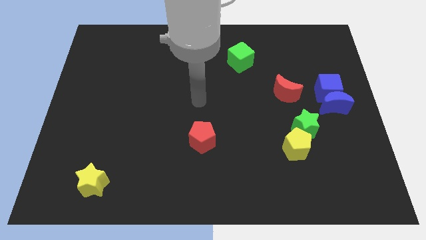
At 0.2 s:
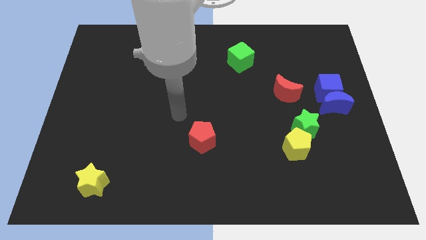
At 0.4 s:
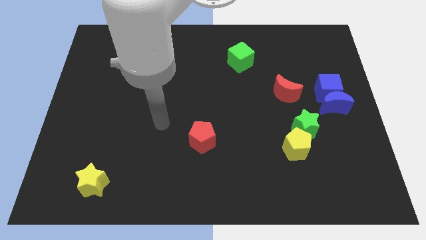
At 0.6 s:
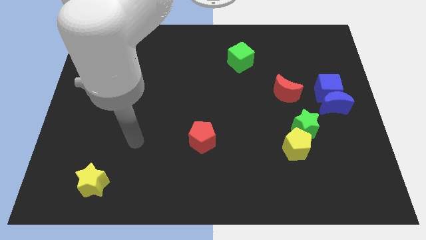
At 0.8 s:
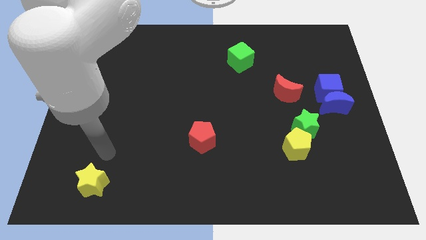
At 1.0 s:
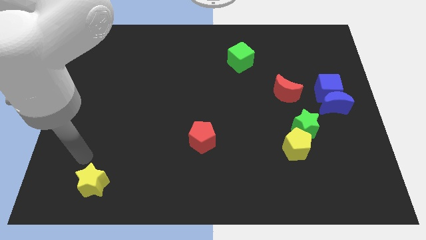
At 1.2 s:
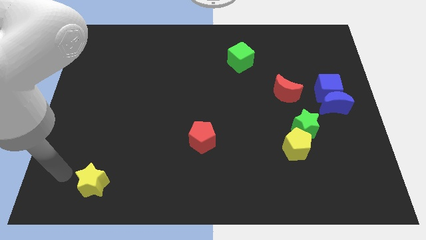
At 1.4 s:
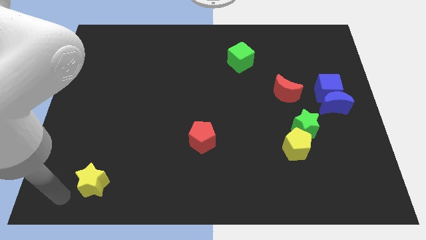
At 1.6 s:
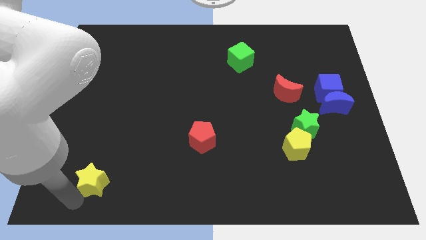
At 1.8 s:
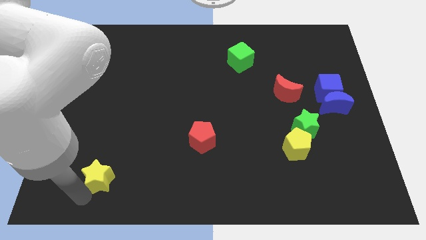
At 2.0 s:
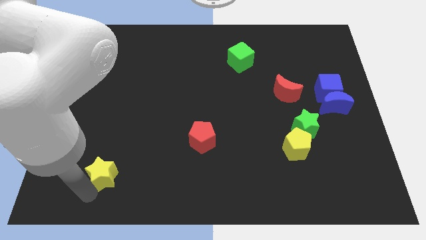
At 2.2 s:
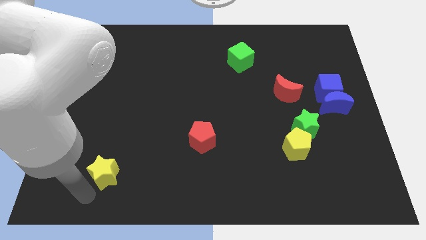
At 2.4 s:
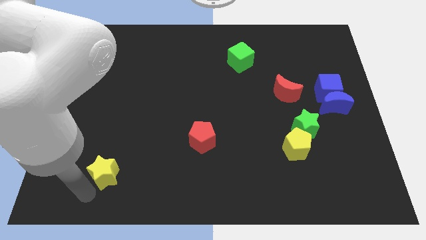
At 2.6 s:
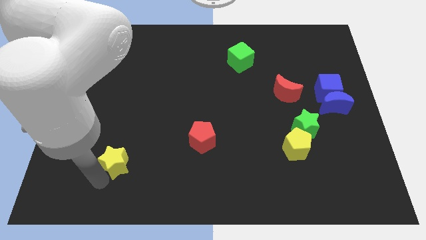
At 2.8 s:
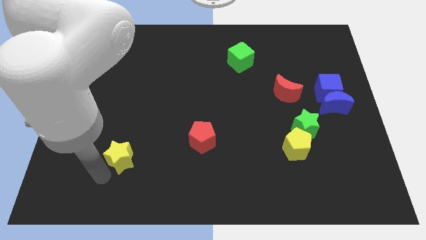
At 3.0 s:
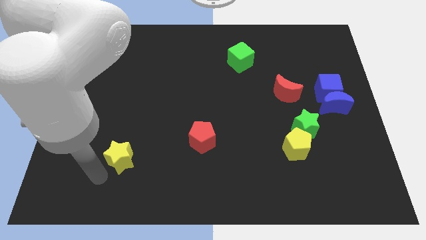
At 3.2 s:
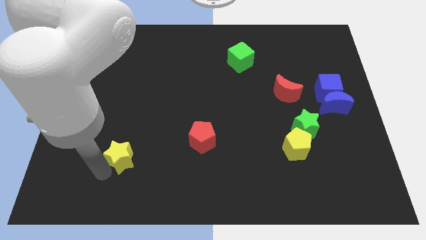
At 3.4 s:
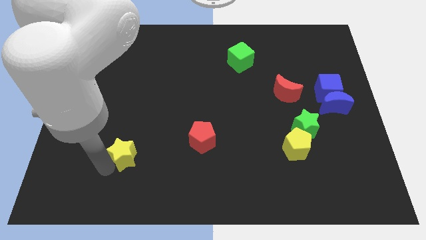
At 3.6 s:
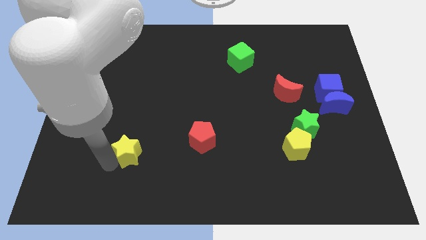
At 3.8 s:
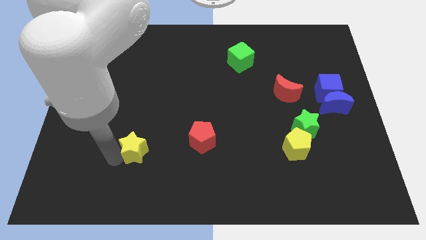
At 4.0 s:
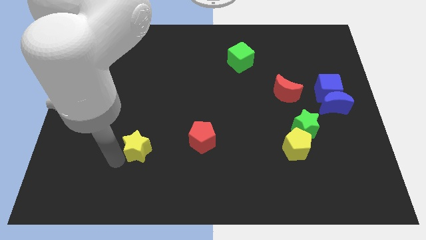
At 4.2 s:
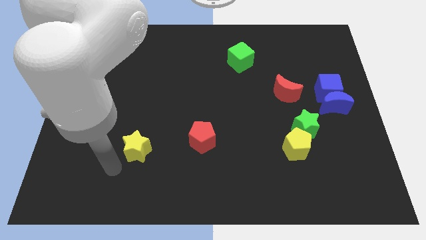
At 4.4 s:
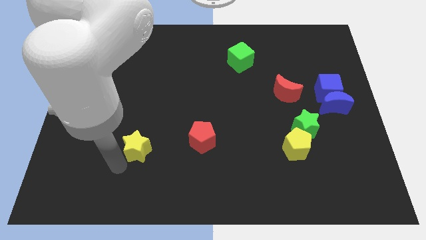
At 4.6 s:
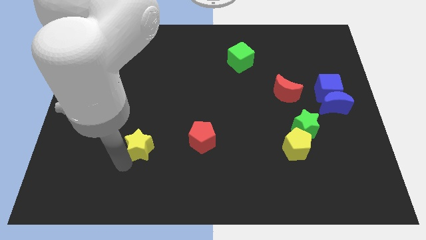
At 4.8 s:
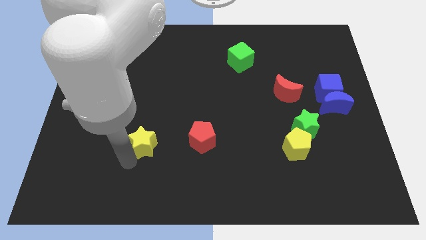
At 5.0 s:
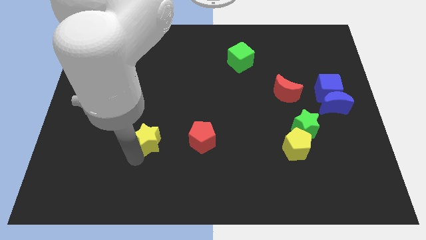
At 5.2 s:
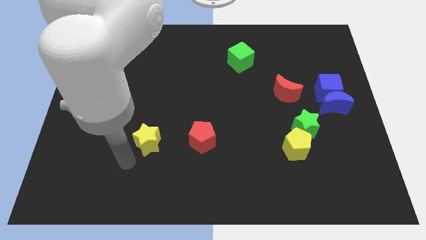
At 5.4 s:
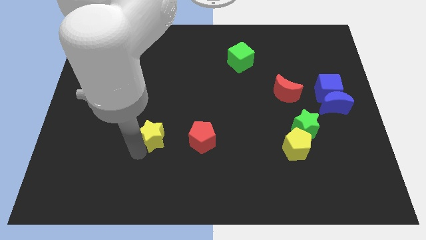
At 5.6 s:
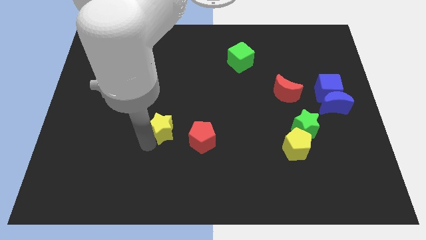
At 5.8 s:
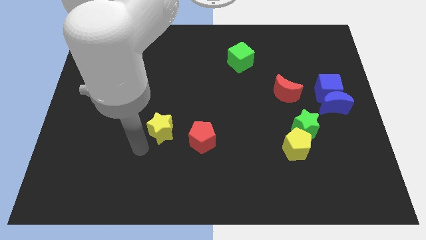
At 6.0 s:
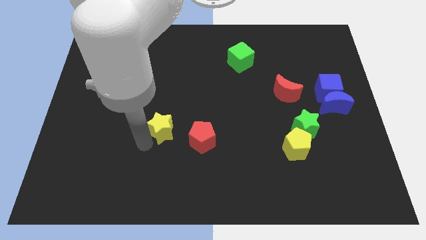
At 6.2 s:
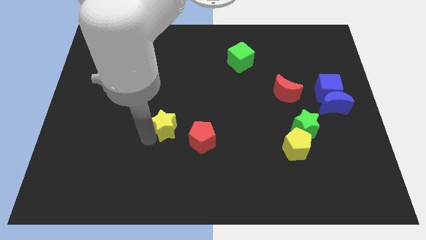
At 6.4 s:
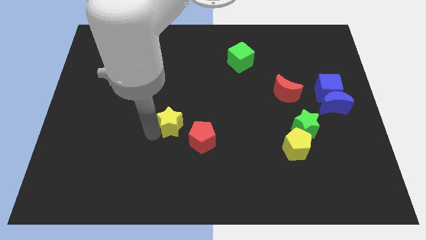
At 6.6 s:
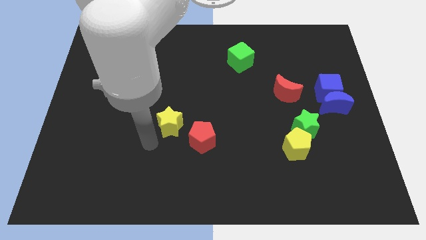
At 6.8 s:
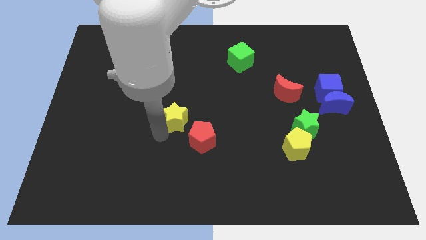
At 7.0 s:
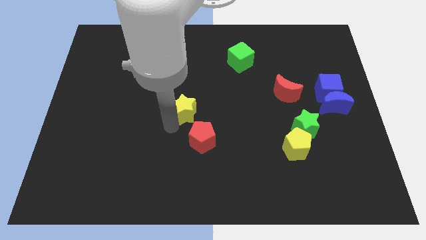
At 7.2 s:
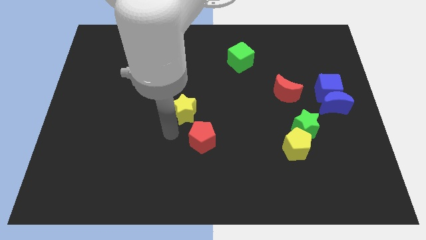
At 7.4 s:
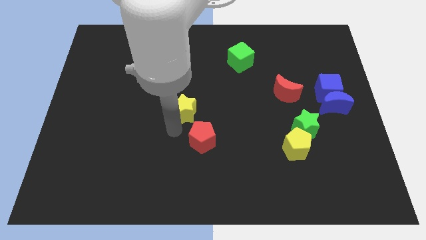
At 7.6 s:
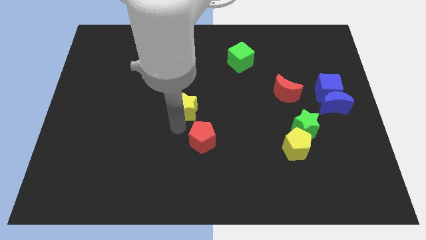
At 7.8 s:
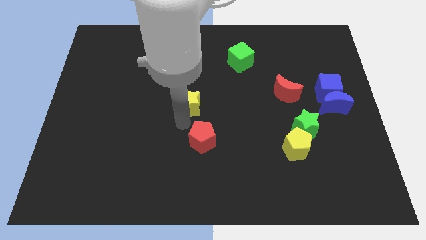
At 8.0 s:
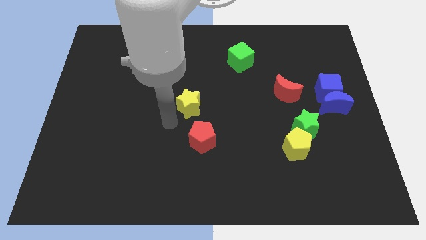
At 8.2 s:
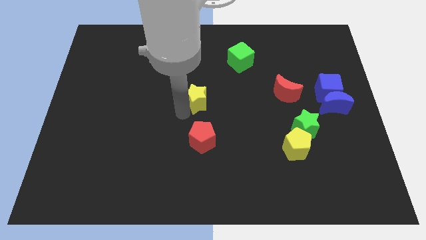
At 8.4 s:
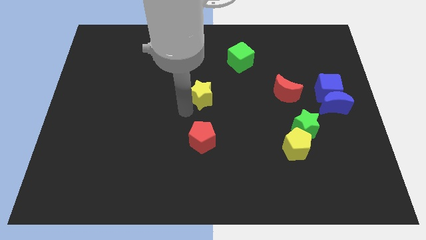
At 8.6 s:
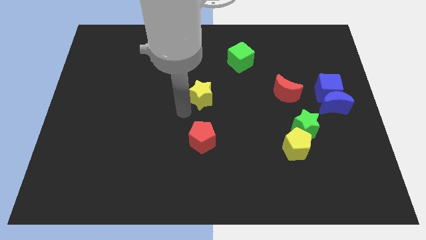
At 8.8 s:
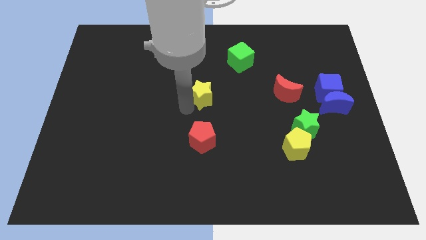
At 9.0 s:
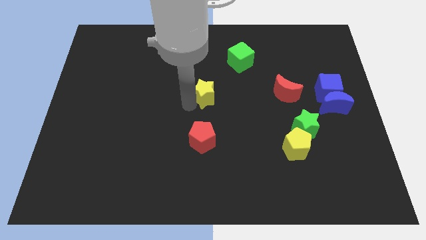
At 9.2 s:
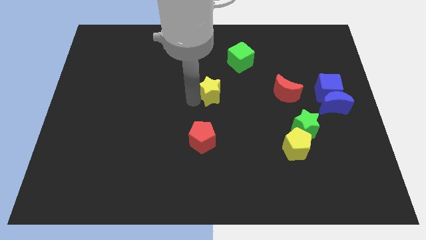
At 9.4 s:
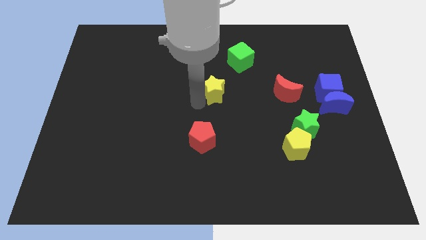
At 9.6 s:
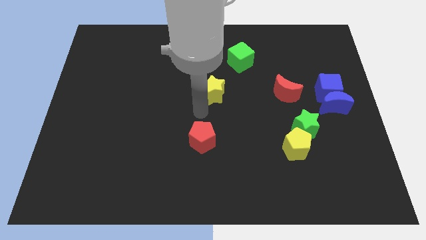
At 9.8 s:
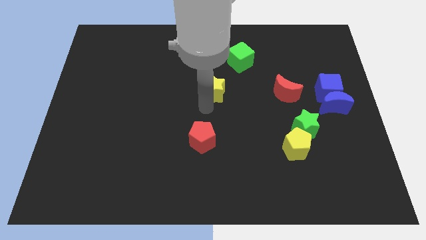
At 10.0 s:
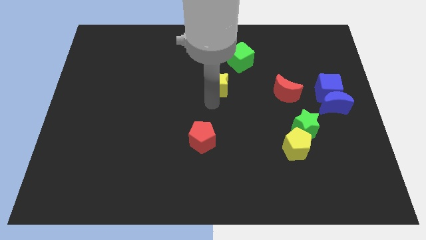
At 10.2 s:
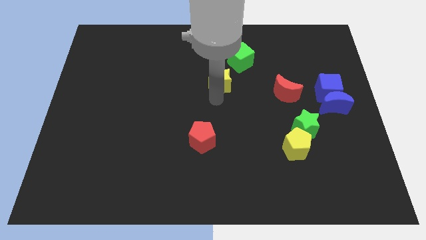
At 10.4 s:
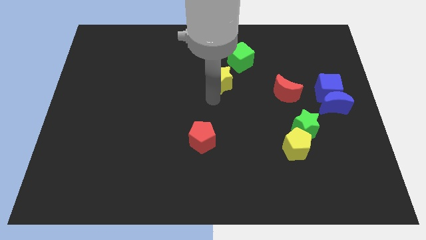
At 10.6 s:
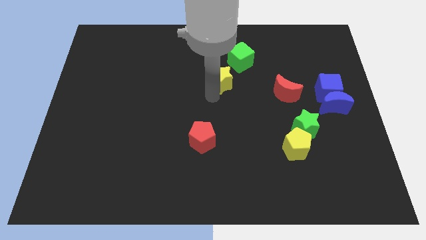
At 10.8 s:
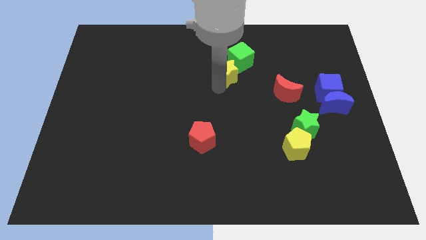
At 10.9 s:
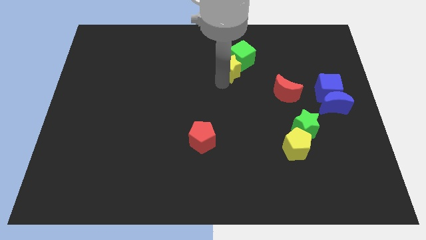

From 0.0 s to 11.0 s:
put the yellow star to the green cube

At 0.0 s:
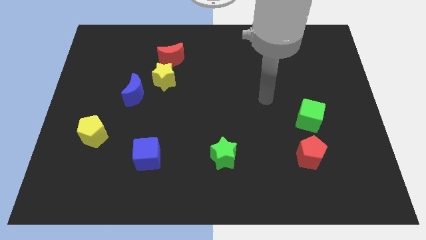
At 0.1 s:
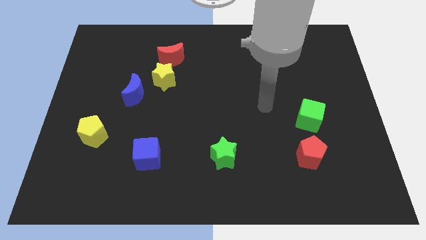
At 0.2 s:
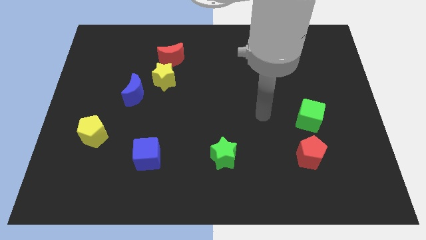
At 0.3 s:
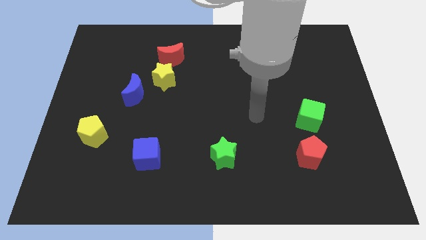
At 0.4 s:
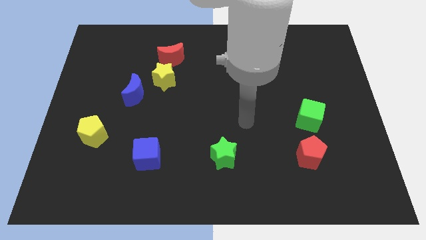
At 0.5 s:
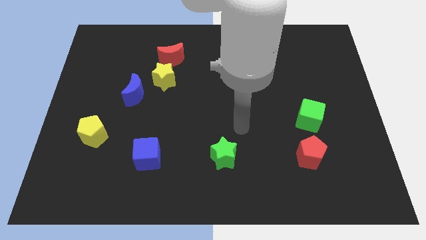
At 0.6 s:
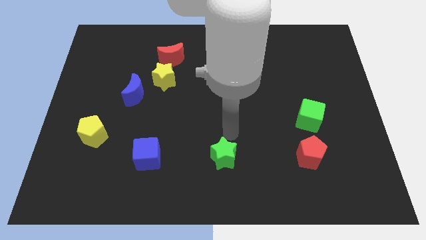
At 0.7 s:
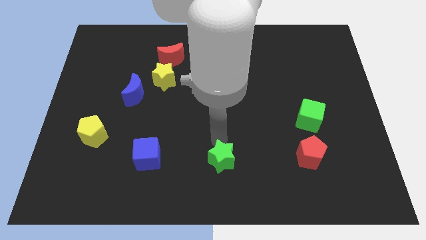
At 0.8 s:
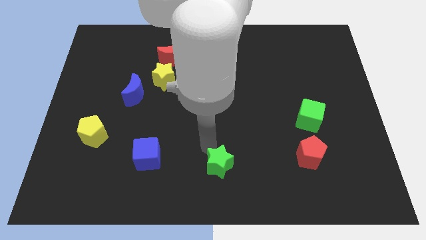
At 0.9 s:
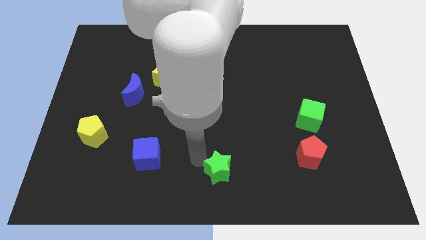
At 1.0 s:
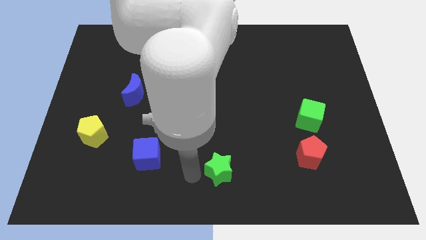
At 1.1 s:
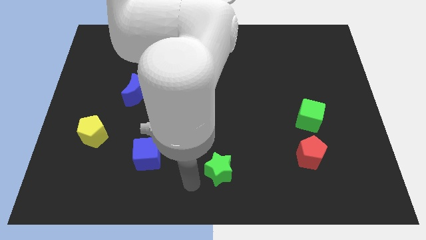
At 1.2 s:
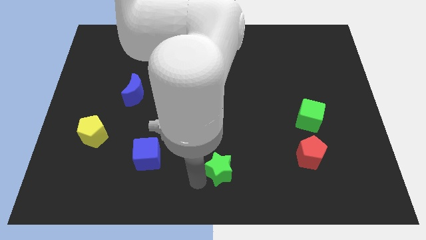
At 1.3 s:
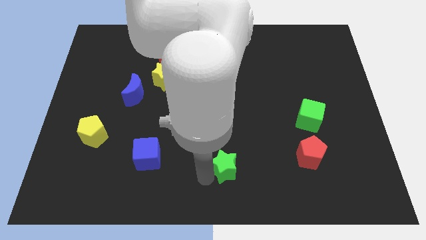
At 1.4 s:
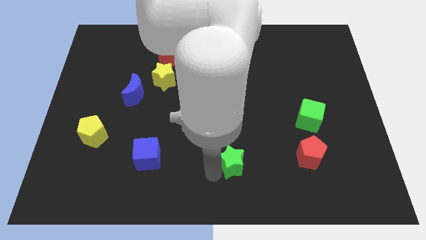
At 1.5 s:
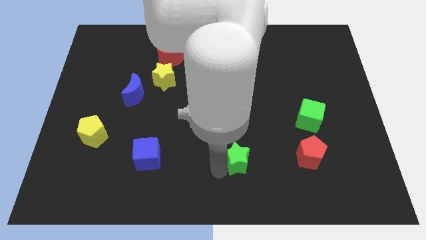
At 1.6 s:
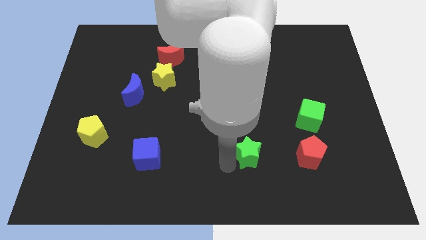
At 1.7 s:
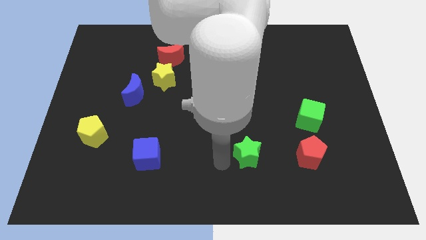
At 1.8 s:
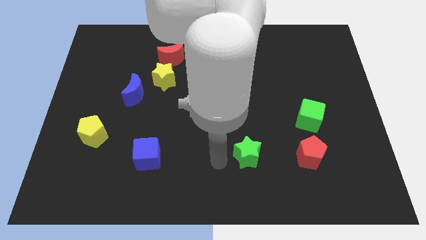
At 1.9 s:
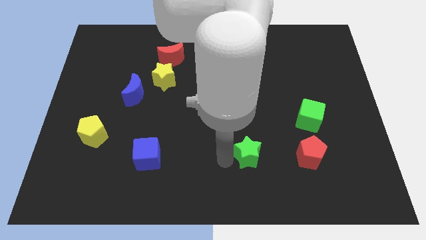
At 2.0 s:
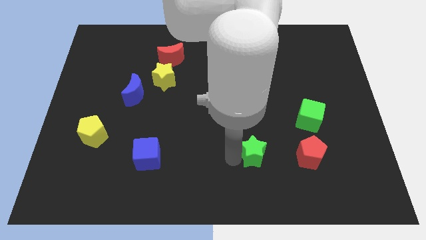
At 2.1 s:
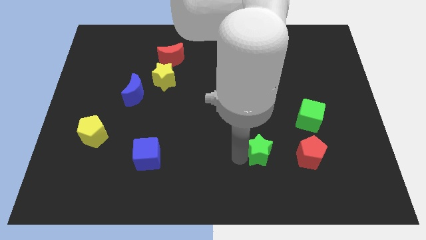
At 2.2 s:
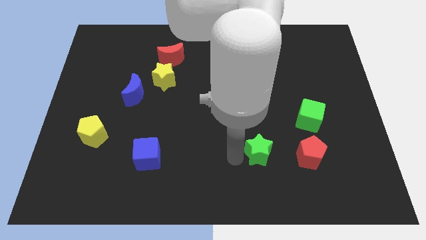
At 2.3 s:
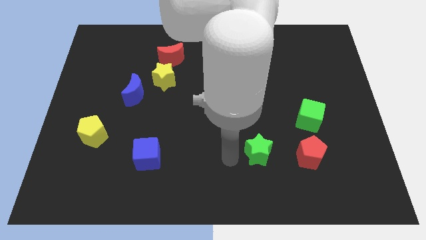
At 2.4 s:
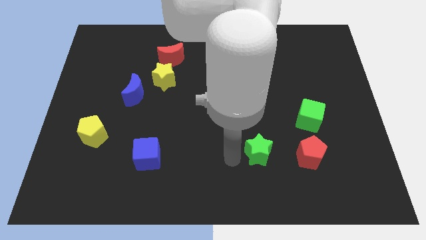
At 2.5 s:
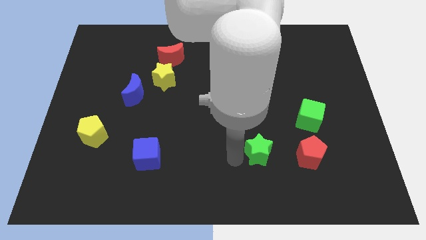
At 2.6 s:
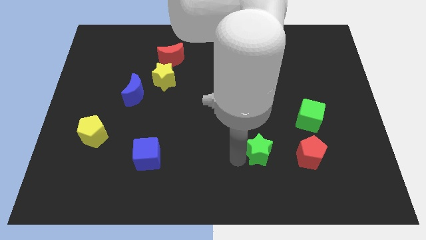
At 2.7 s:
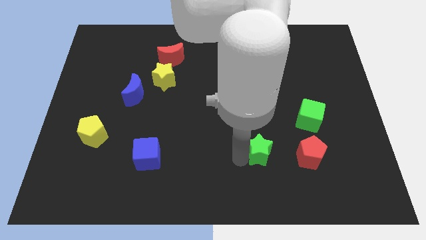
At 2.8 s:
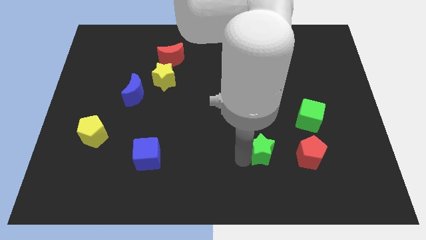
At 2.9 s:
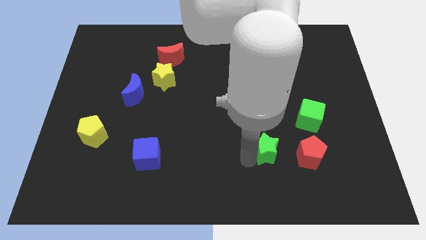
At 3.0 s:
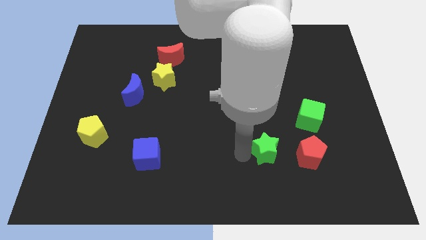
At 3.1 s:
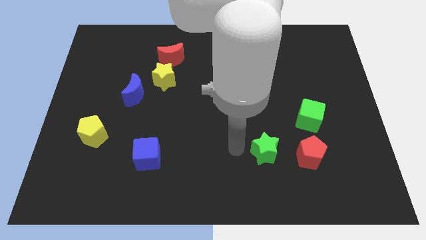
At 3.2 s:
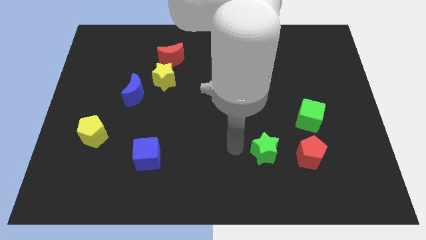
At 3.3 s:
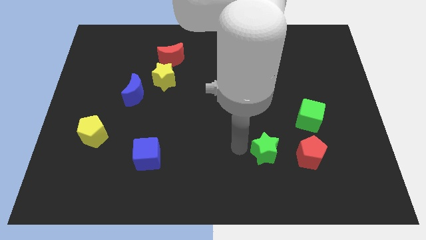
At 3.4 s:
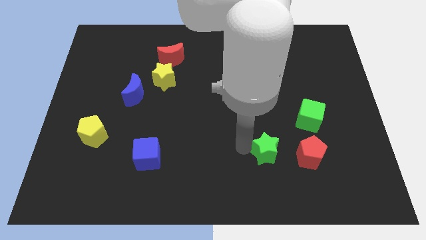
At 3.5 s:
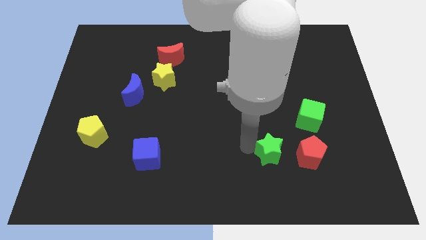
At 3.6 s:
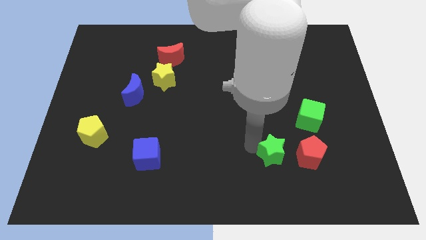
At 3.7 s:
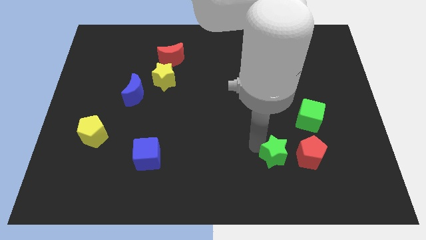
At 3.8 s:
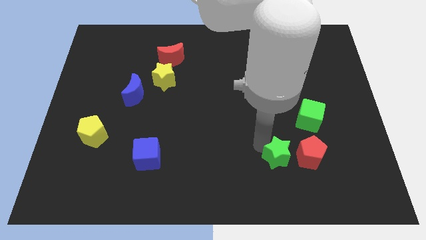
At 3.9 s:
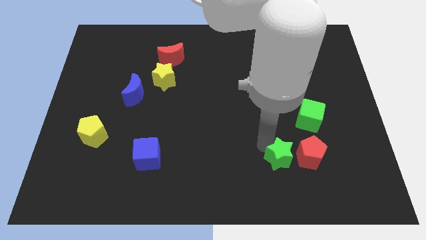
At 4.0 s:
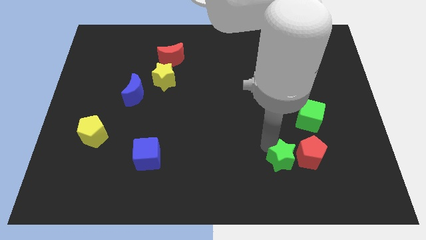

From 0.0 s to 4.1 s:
move the green star close to the red pentagon
